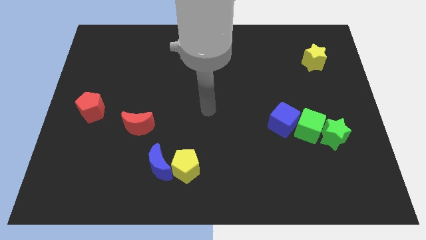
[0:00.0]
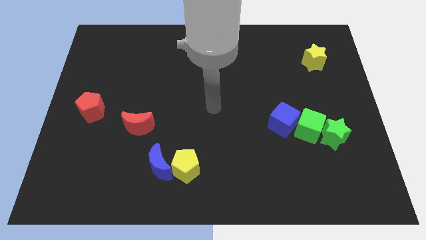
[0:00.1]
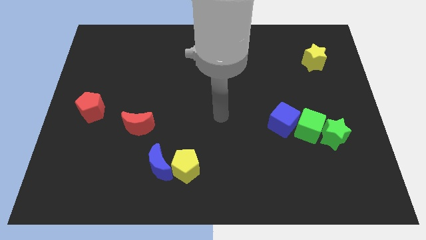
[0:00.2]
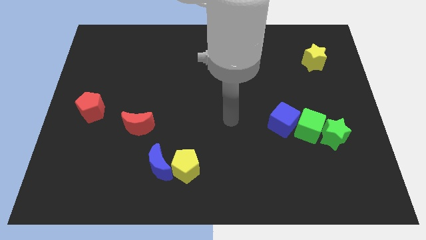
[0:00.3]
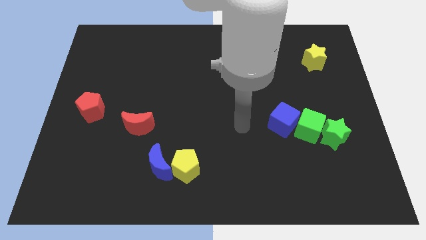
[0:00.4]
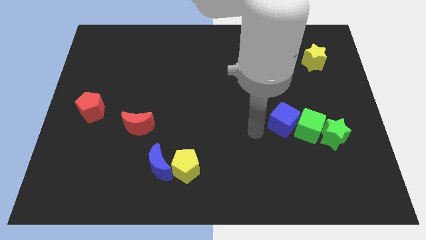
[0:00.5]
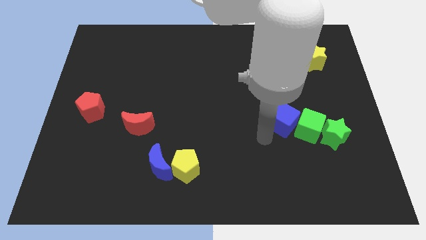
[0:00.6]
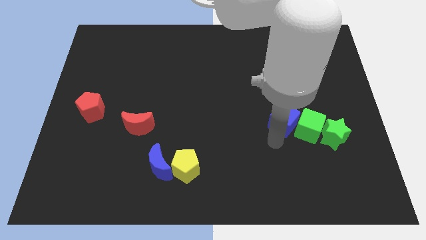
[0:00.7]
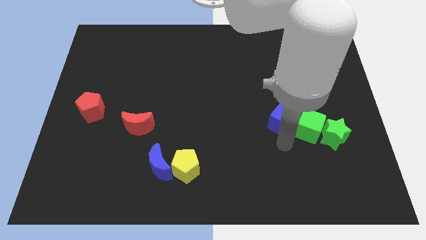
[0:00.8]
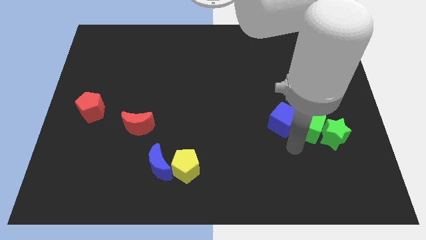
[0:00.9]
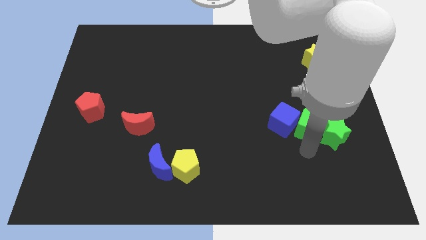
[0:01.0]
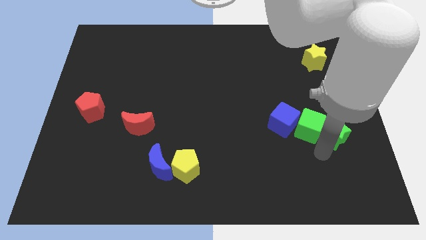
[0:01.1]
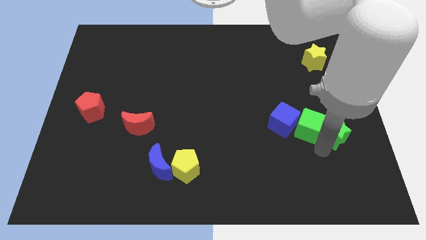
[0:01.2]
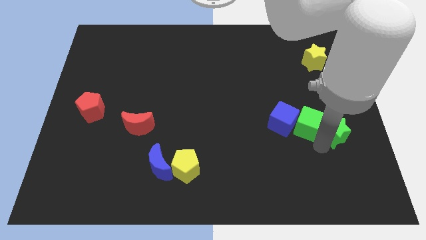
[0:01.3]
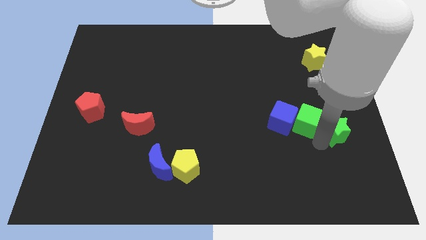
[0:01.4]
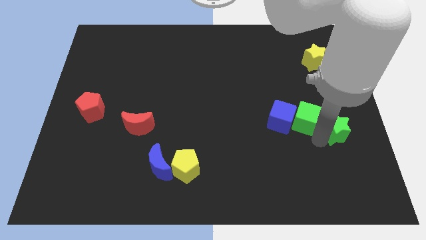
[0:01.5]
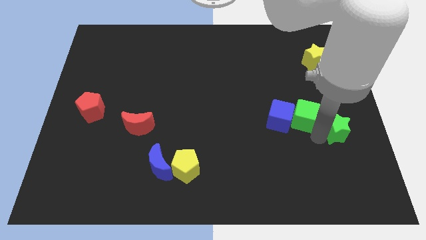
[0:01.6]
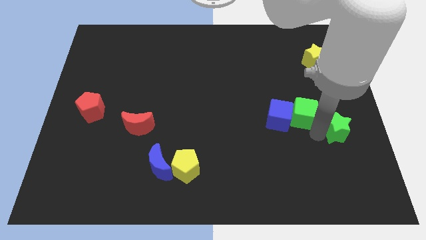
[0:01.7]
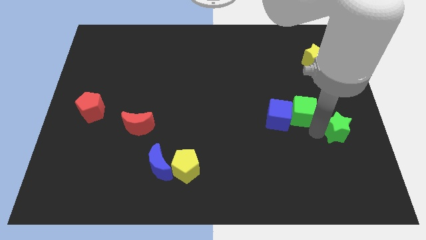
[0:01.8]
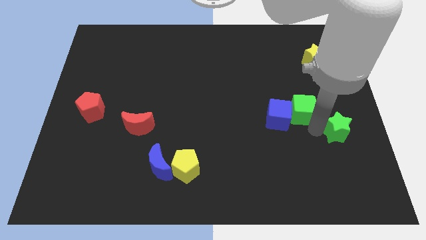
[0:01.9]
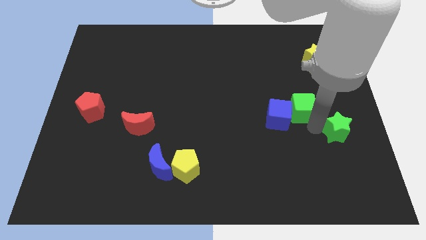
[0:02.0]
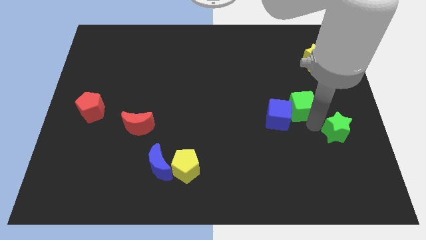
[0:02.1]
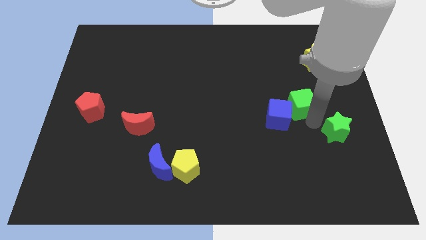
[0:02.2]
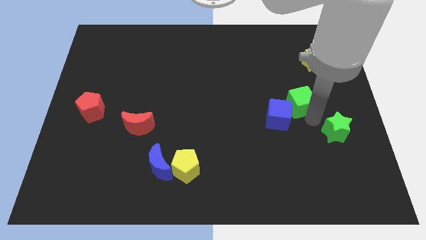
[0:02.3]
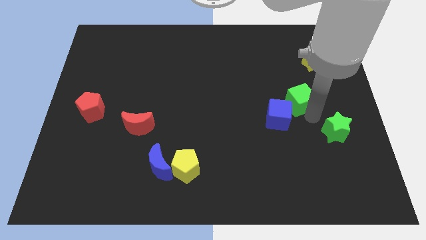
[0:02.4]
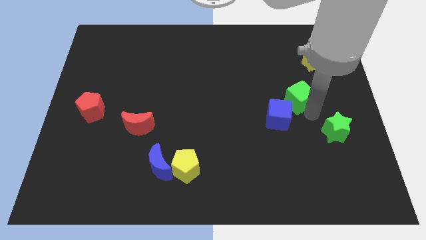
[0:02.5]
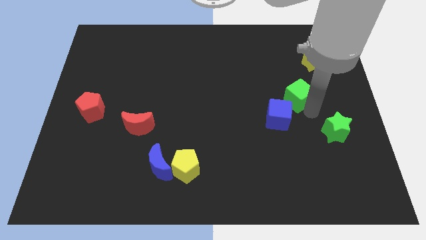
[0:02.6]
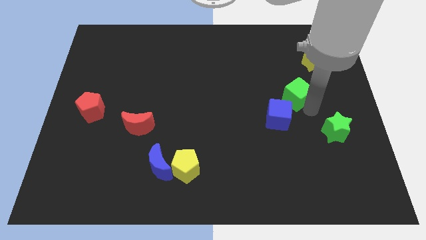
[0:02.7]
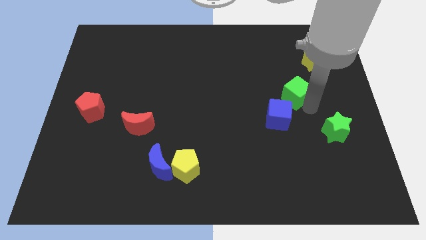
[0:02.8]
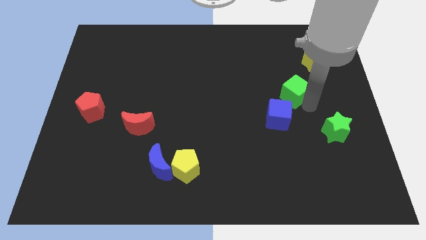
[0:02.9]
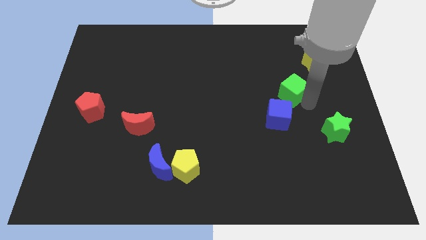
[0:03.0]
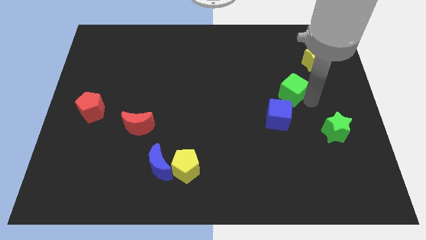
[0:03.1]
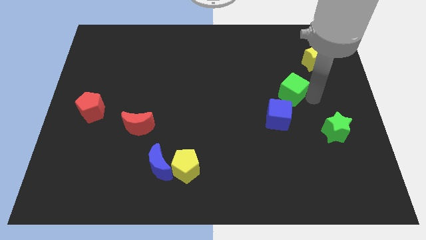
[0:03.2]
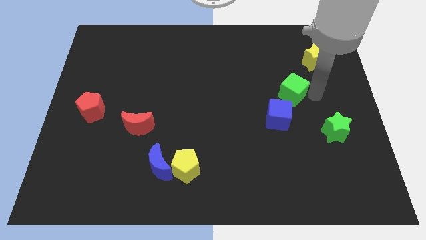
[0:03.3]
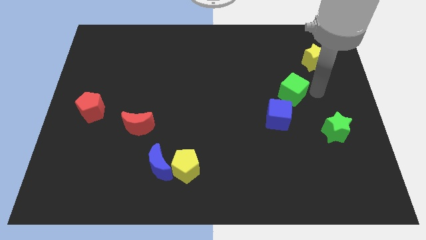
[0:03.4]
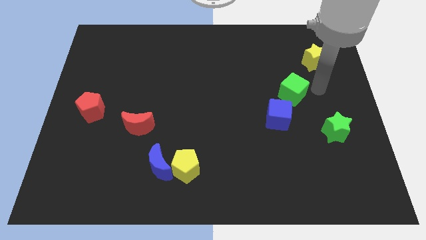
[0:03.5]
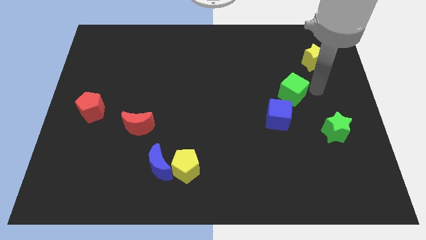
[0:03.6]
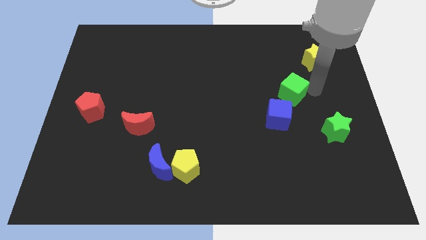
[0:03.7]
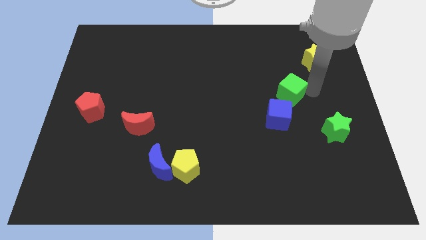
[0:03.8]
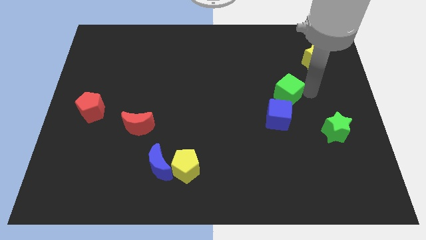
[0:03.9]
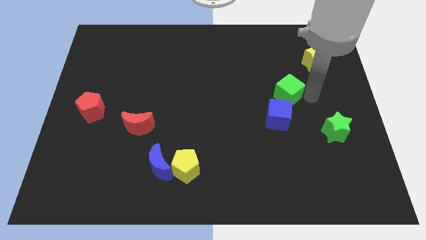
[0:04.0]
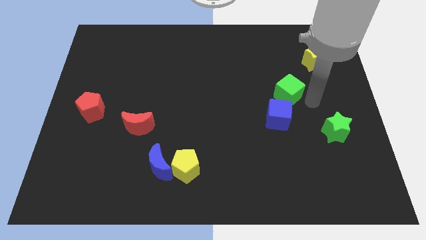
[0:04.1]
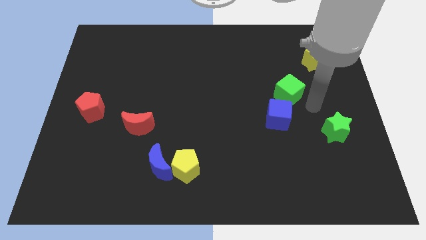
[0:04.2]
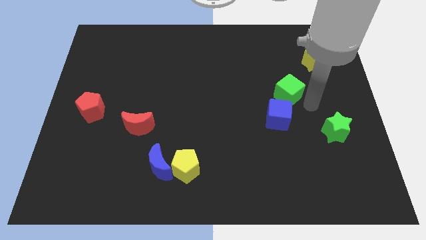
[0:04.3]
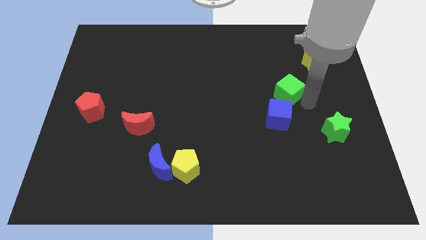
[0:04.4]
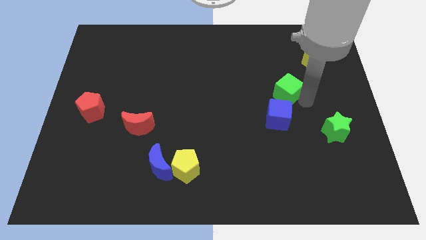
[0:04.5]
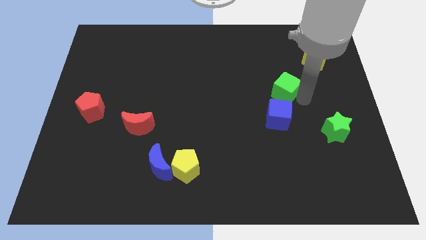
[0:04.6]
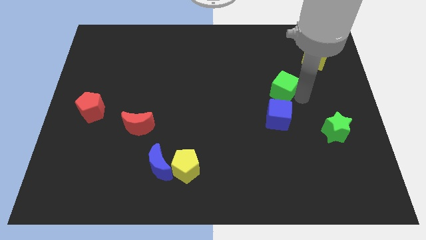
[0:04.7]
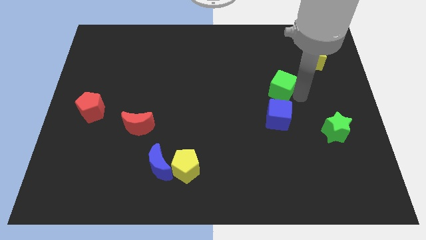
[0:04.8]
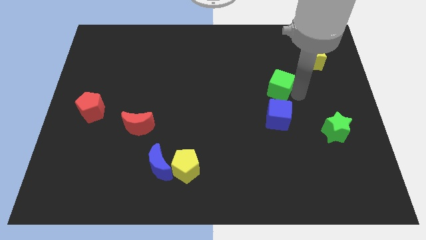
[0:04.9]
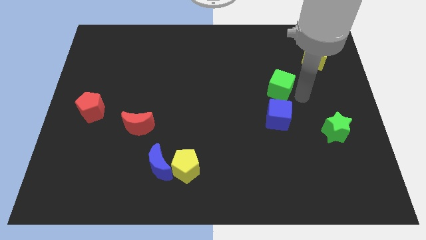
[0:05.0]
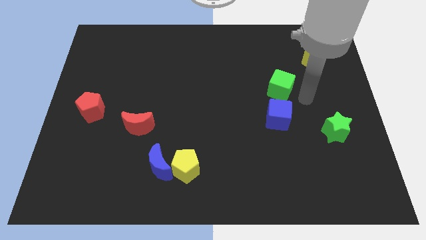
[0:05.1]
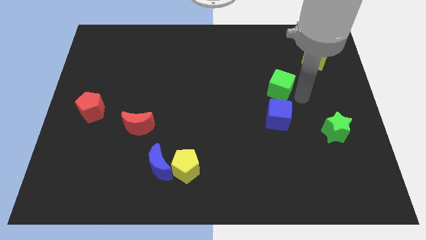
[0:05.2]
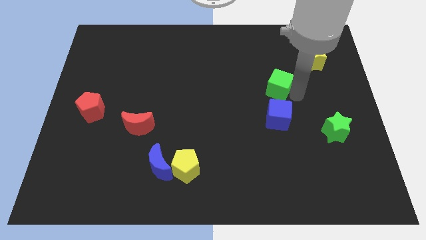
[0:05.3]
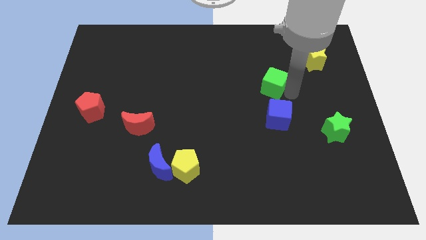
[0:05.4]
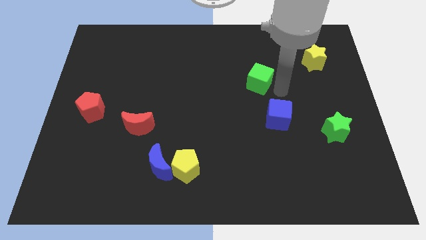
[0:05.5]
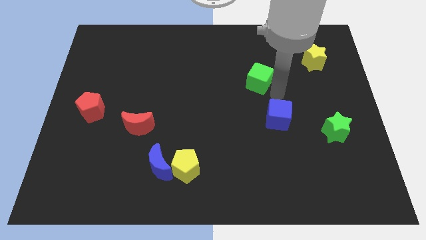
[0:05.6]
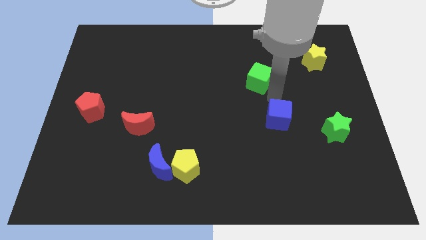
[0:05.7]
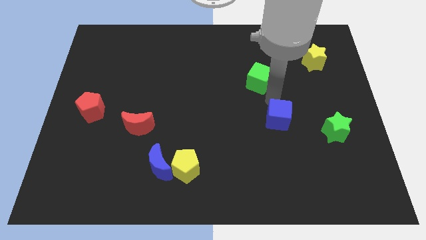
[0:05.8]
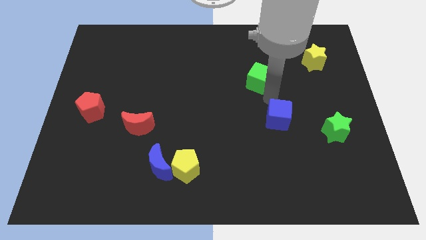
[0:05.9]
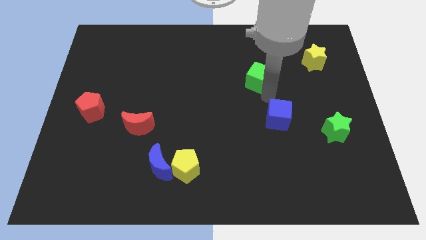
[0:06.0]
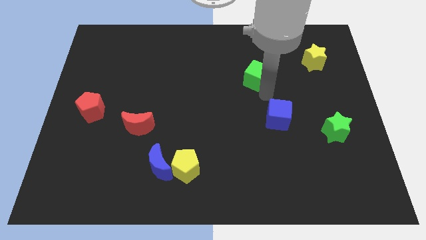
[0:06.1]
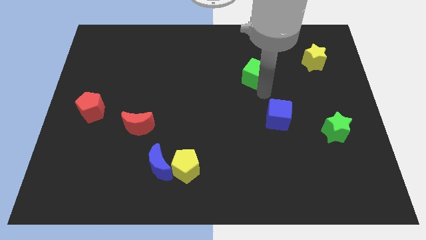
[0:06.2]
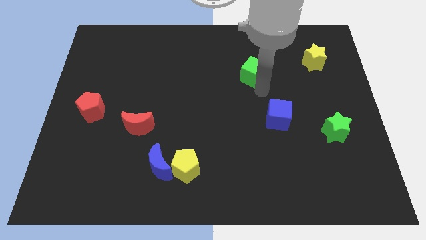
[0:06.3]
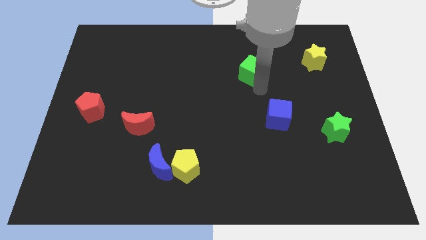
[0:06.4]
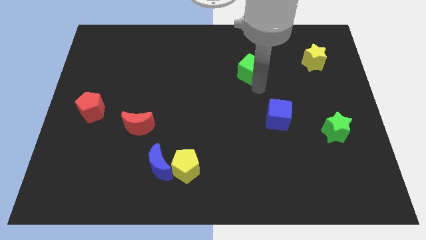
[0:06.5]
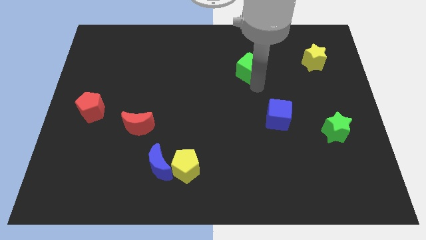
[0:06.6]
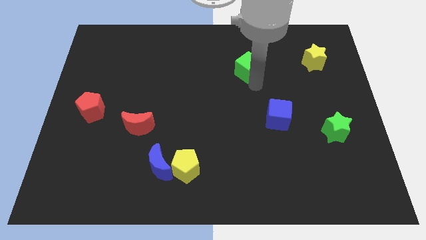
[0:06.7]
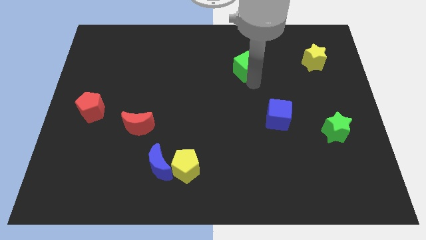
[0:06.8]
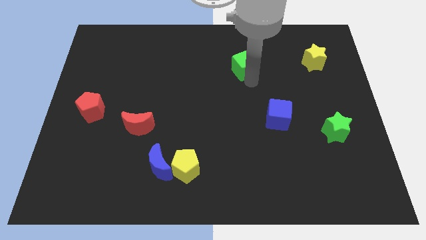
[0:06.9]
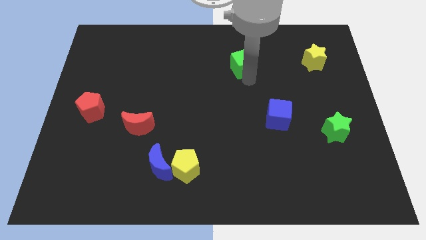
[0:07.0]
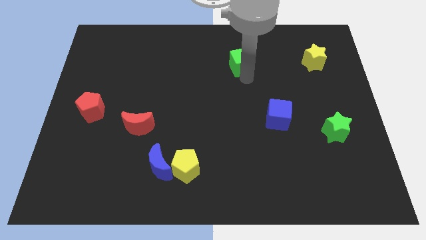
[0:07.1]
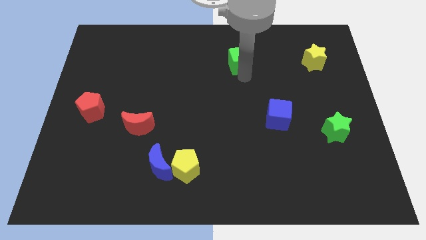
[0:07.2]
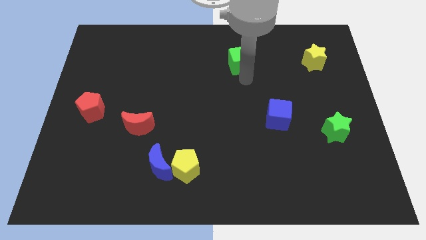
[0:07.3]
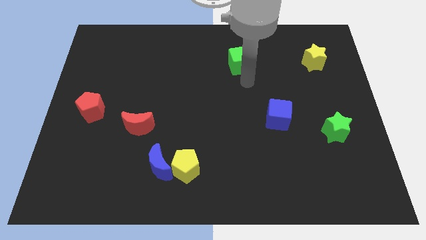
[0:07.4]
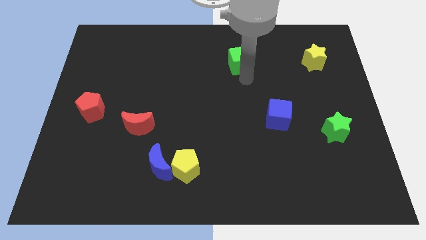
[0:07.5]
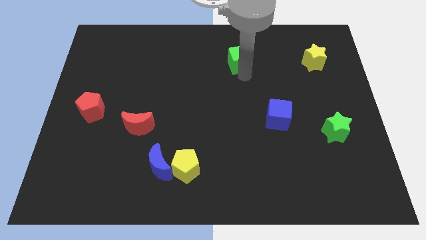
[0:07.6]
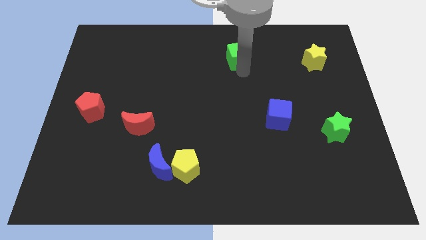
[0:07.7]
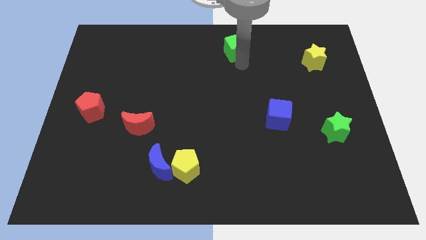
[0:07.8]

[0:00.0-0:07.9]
put the green cube to the towards your base
